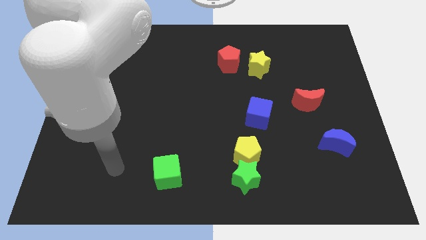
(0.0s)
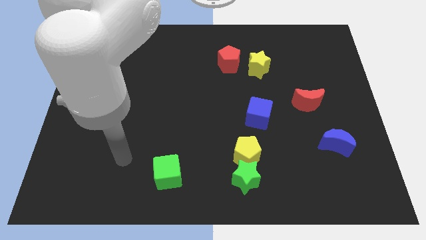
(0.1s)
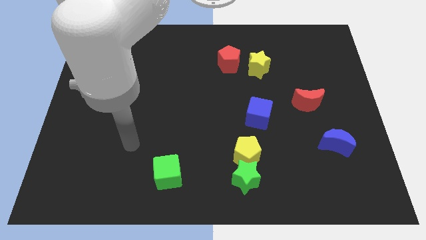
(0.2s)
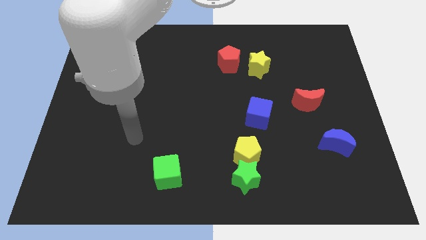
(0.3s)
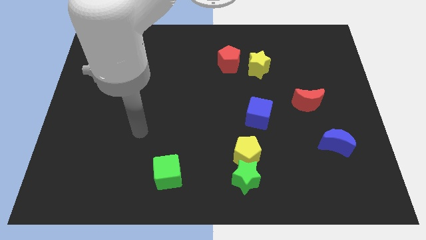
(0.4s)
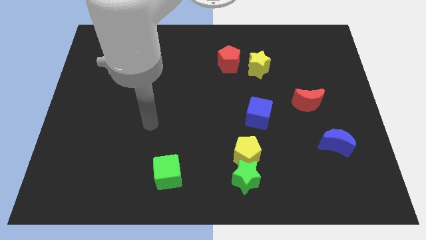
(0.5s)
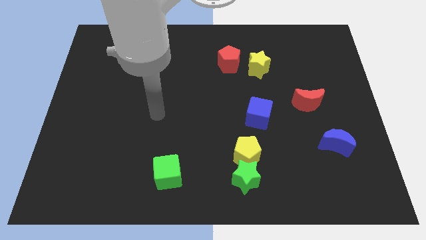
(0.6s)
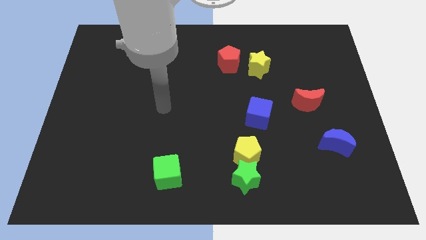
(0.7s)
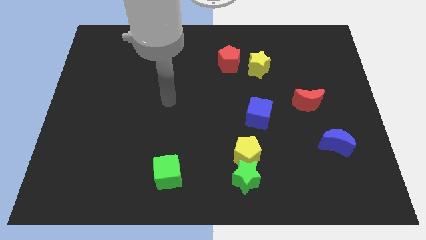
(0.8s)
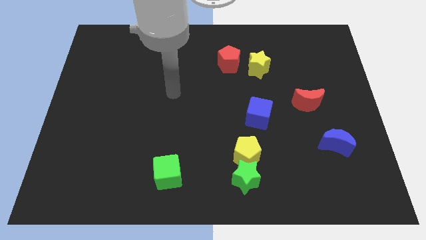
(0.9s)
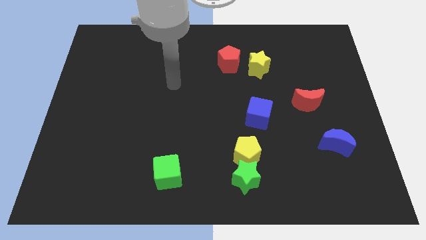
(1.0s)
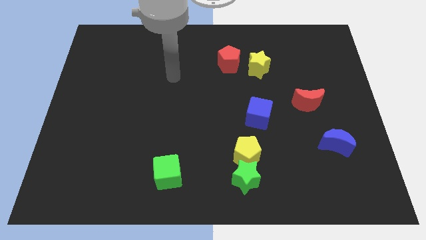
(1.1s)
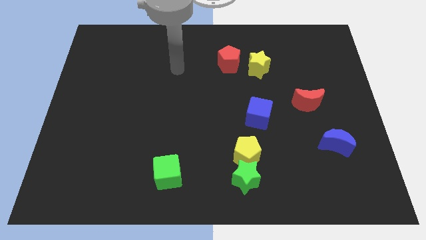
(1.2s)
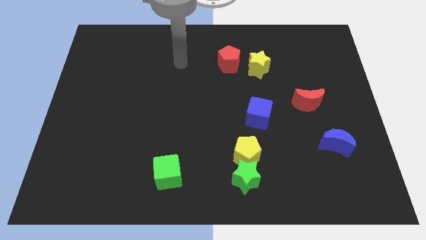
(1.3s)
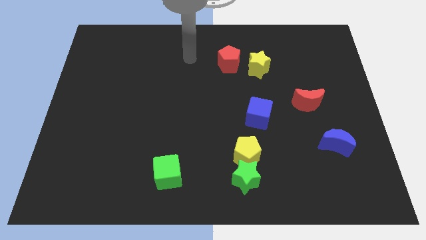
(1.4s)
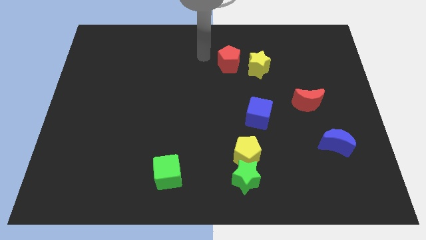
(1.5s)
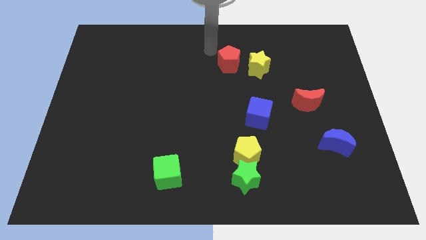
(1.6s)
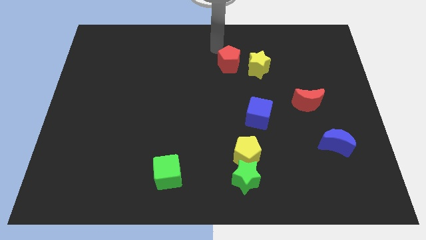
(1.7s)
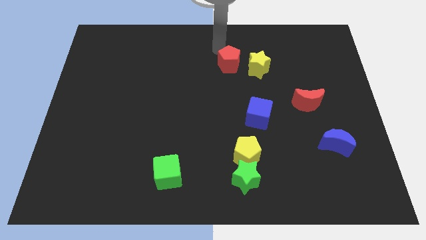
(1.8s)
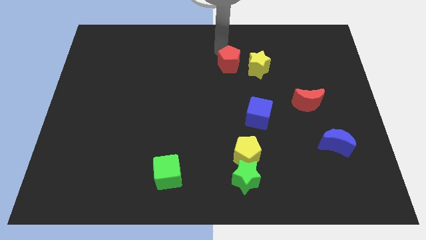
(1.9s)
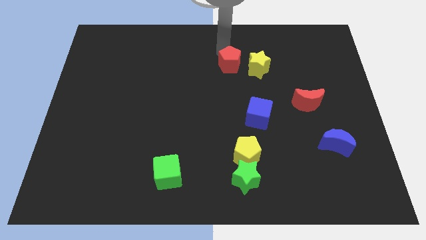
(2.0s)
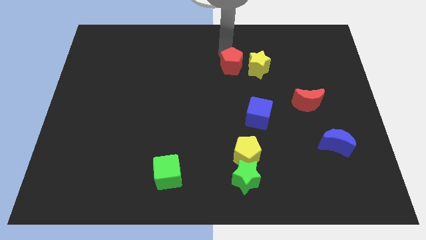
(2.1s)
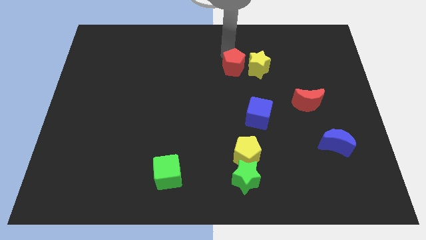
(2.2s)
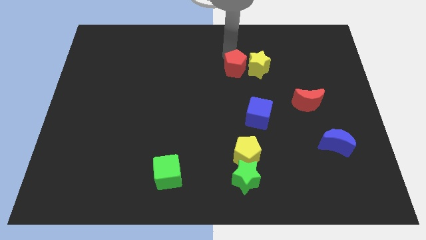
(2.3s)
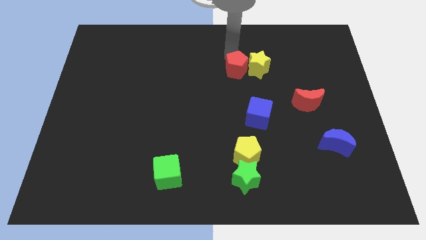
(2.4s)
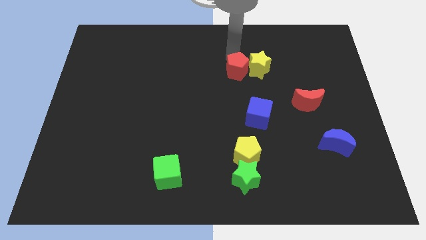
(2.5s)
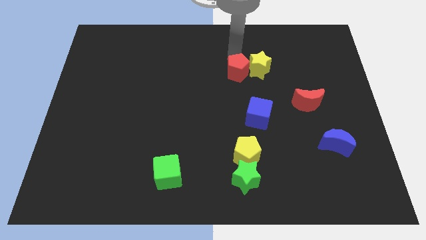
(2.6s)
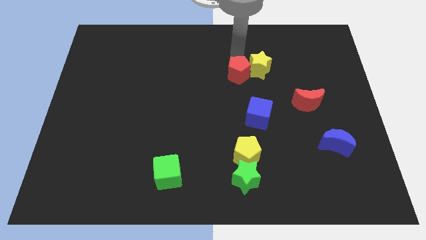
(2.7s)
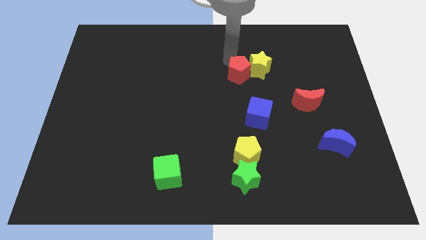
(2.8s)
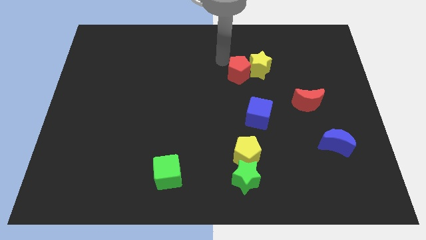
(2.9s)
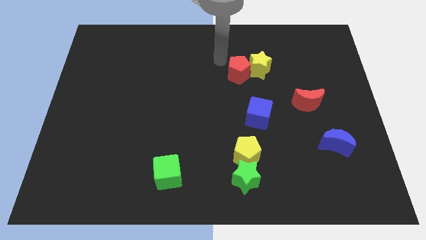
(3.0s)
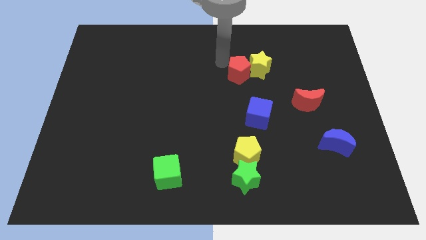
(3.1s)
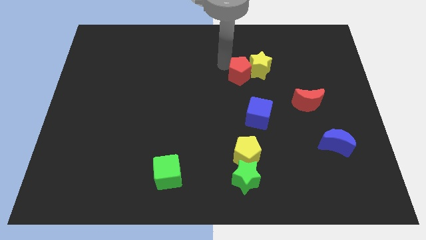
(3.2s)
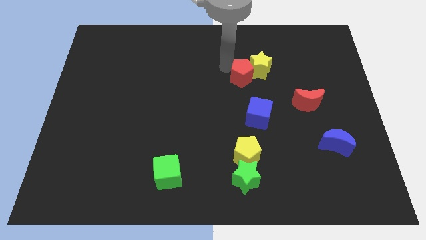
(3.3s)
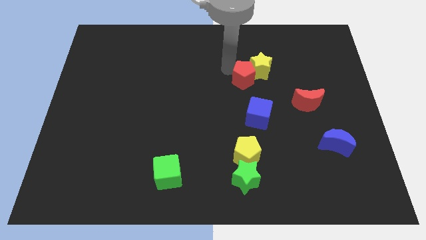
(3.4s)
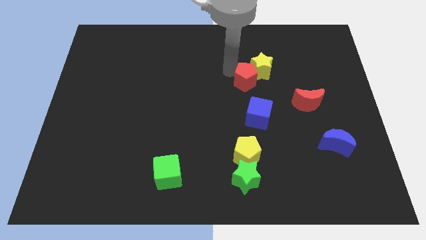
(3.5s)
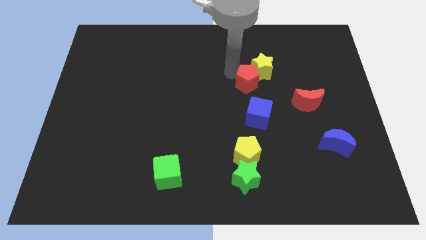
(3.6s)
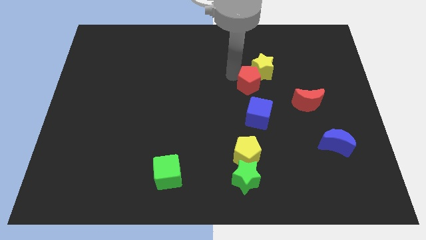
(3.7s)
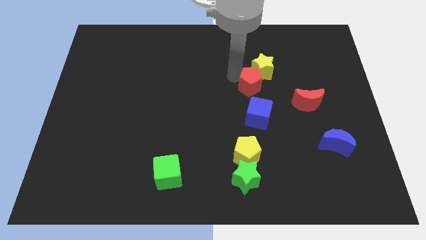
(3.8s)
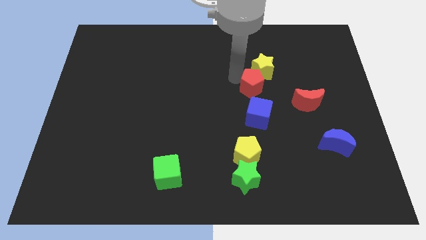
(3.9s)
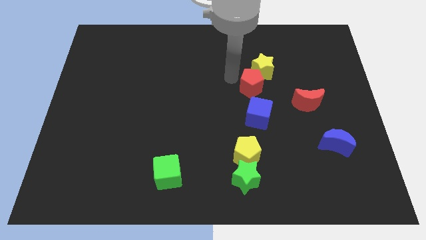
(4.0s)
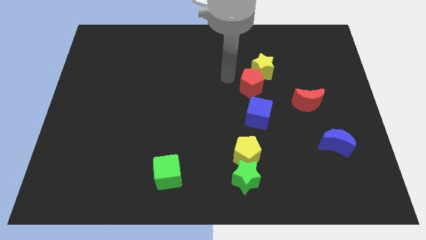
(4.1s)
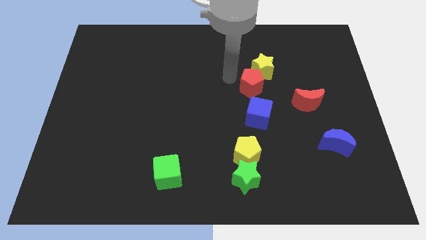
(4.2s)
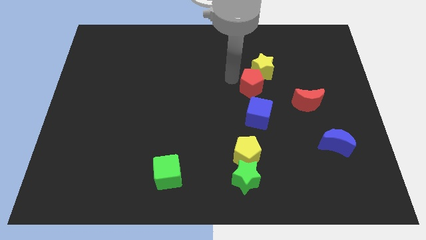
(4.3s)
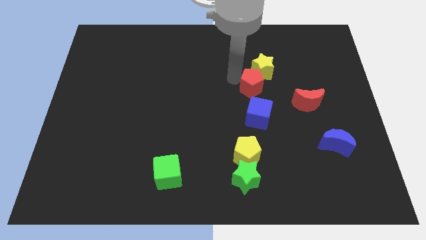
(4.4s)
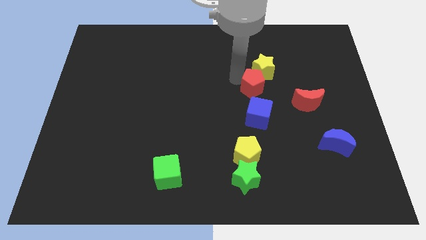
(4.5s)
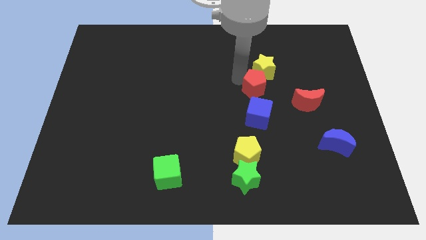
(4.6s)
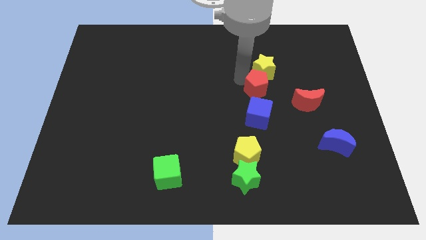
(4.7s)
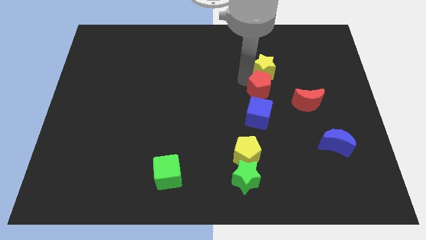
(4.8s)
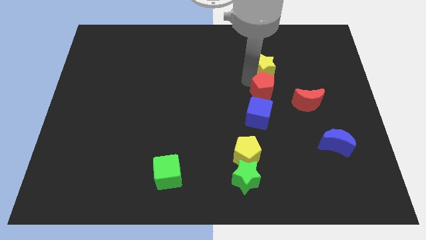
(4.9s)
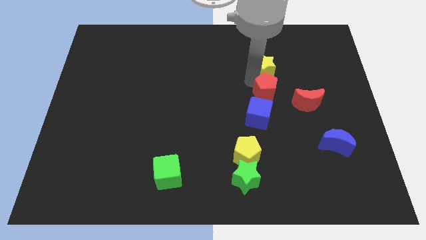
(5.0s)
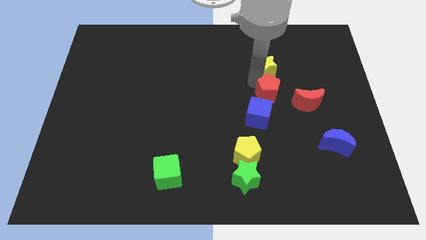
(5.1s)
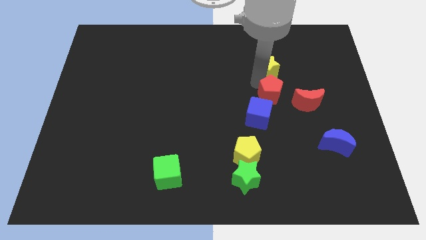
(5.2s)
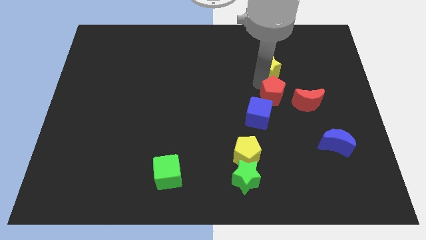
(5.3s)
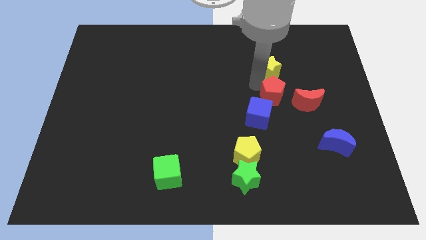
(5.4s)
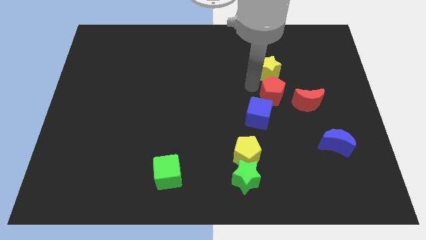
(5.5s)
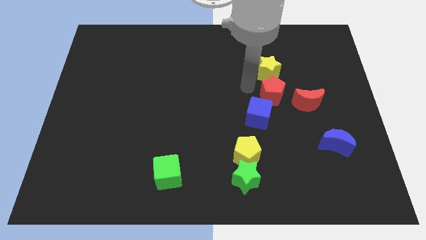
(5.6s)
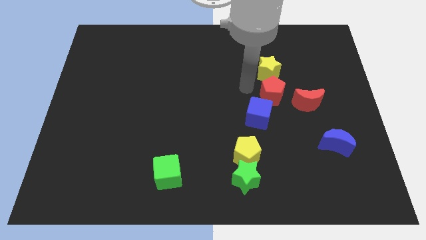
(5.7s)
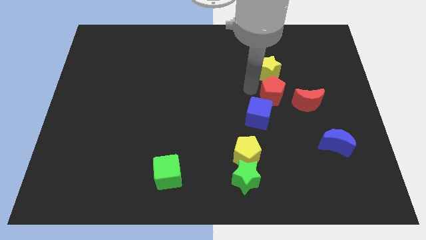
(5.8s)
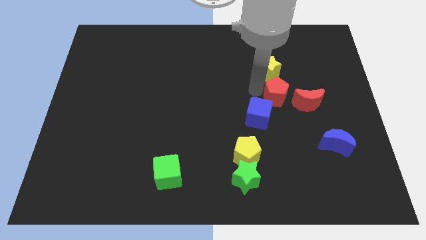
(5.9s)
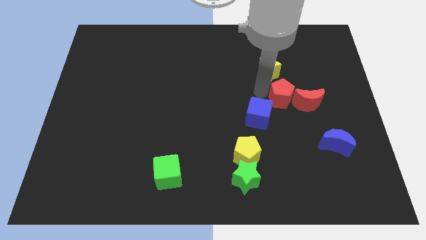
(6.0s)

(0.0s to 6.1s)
put the red pentagon close to the red moon
